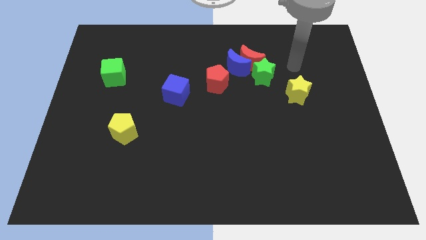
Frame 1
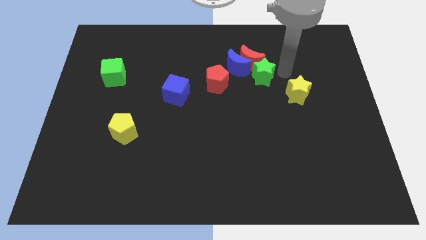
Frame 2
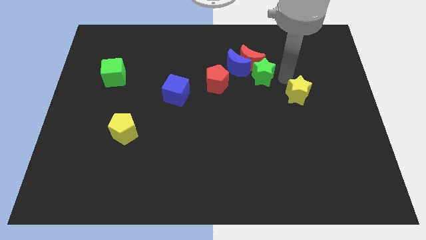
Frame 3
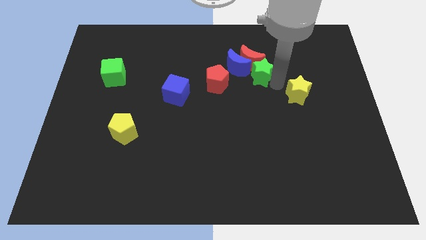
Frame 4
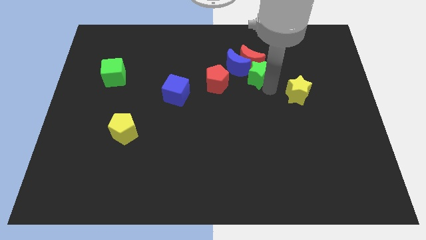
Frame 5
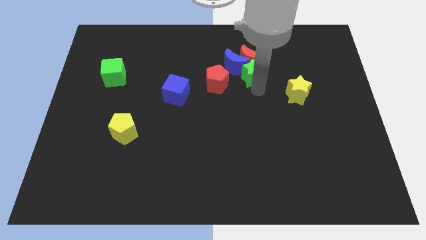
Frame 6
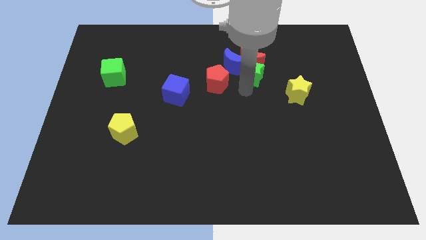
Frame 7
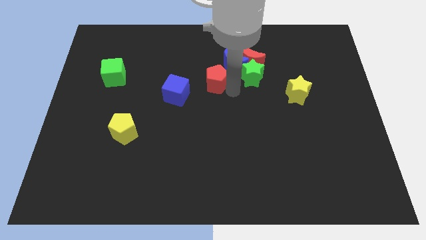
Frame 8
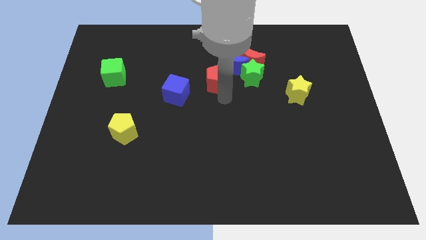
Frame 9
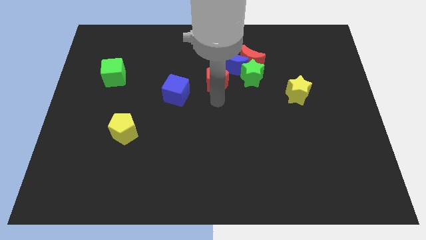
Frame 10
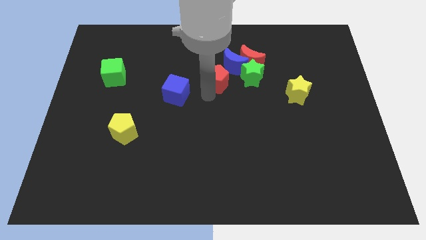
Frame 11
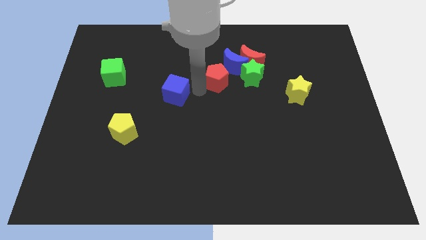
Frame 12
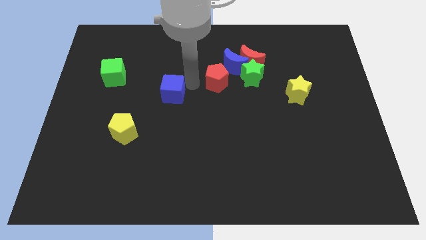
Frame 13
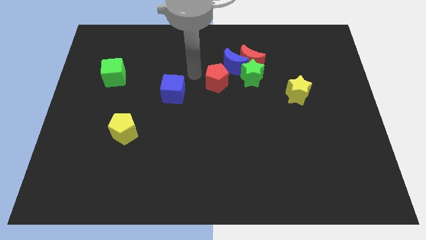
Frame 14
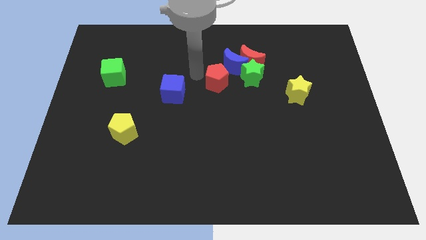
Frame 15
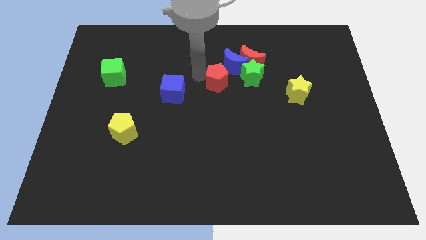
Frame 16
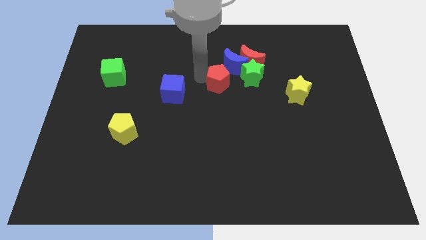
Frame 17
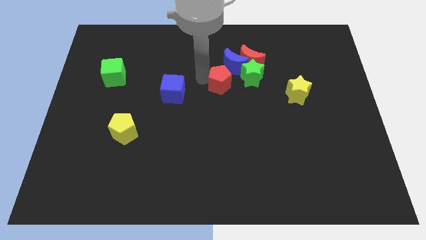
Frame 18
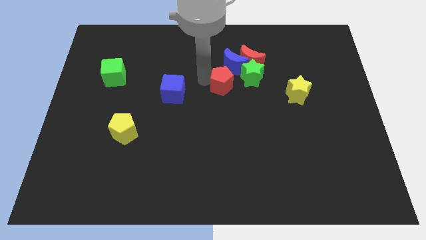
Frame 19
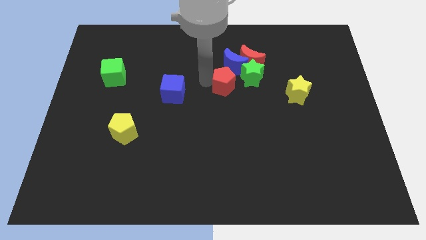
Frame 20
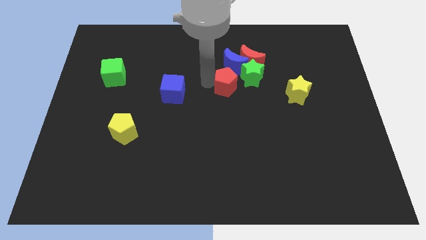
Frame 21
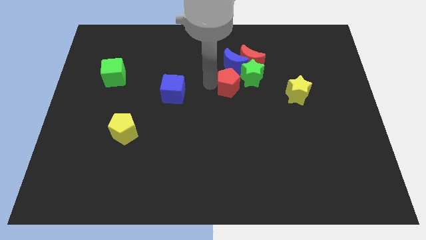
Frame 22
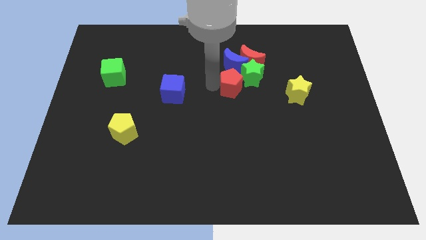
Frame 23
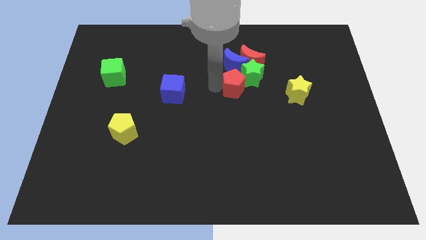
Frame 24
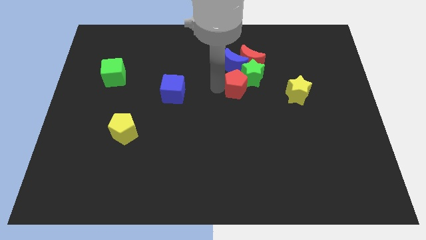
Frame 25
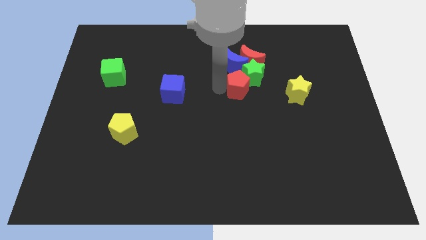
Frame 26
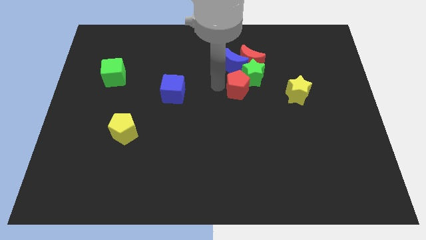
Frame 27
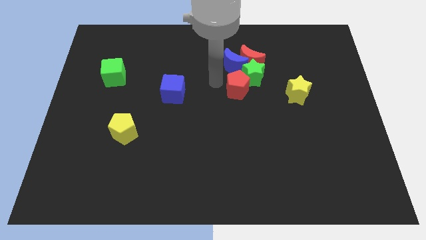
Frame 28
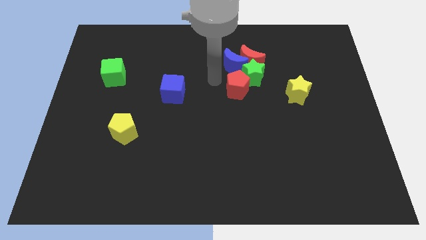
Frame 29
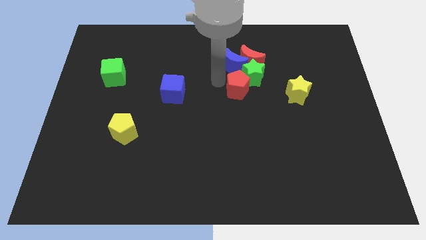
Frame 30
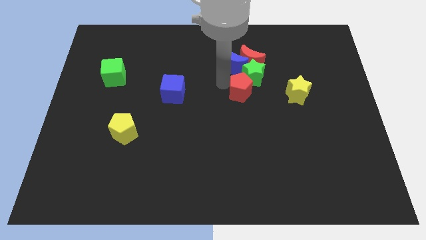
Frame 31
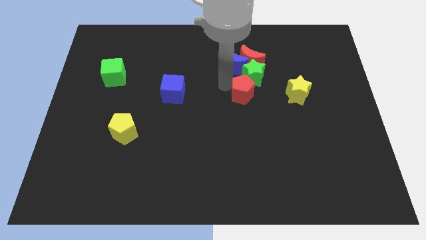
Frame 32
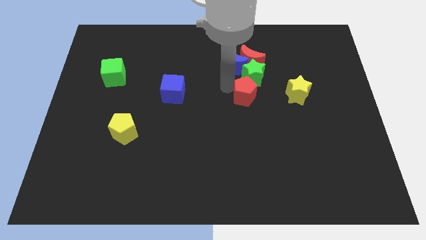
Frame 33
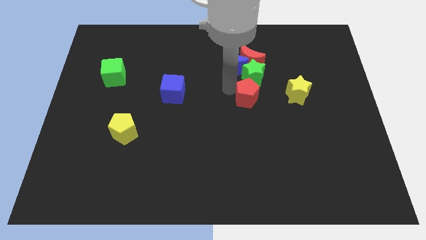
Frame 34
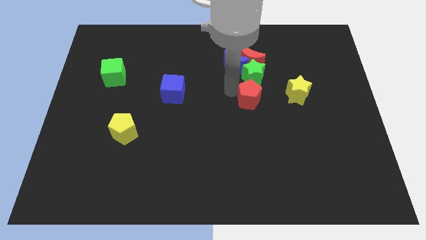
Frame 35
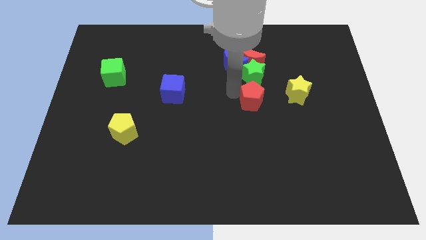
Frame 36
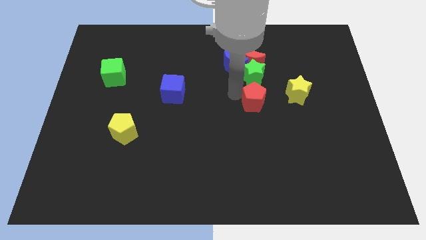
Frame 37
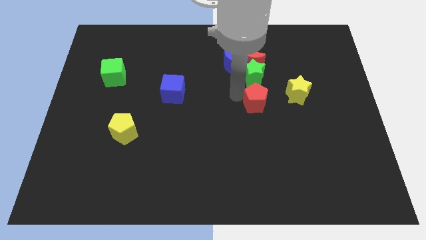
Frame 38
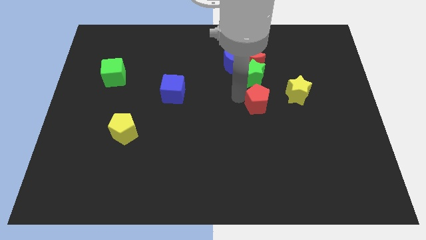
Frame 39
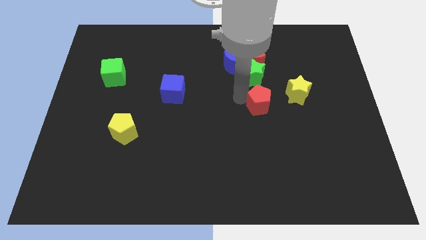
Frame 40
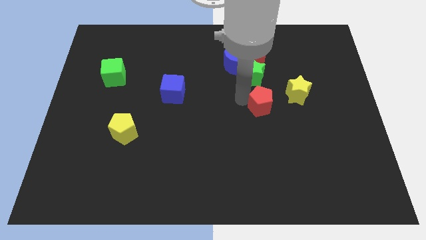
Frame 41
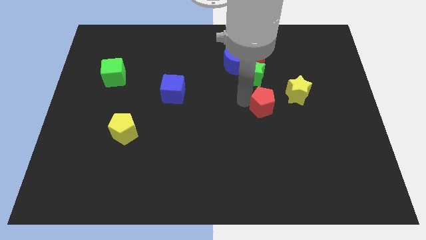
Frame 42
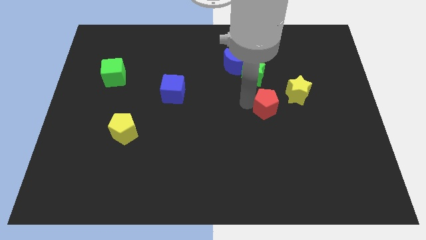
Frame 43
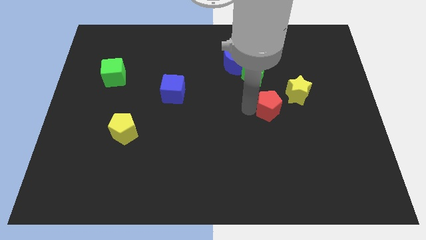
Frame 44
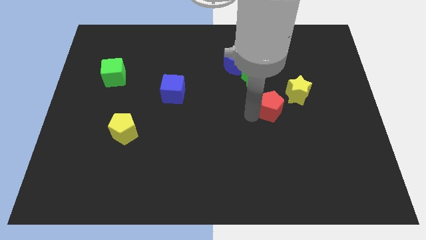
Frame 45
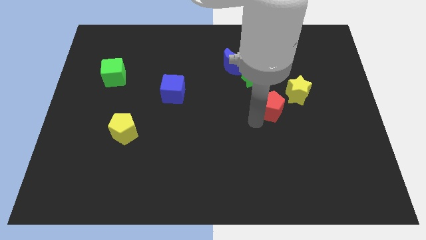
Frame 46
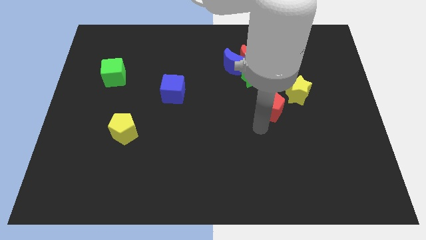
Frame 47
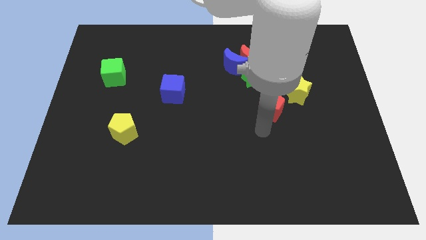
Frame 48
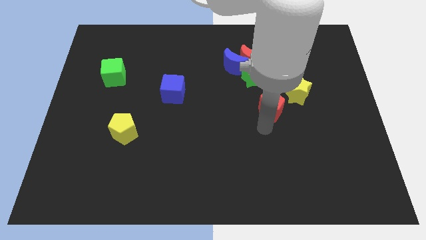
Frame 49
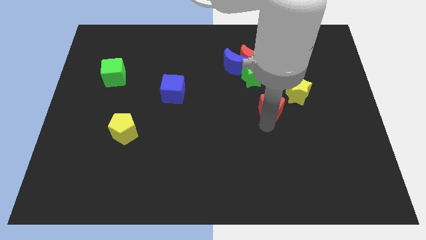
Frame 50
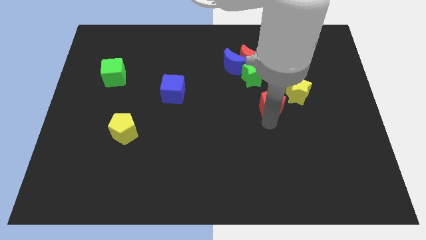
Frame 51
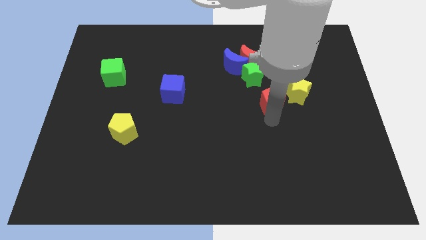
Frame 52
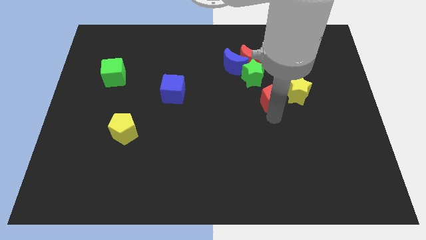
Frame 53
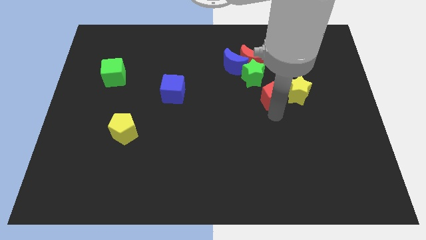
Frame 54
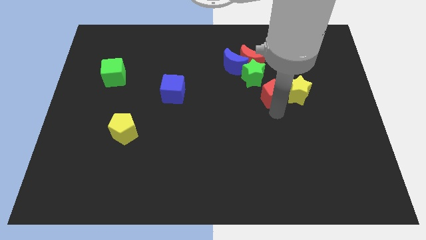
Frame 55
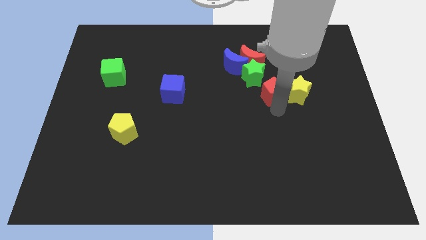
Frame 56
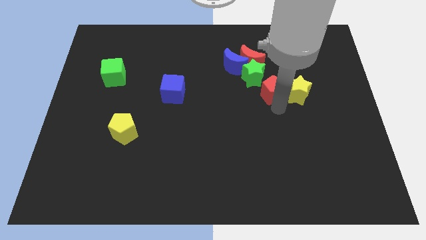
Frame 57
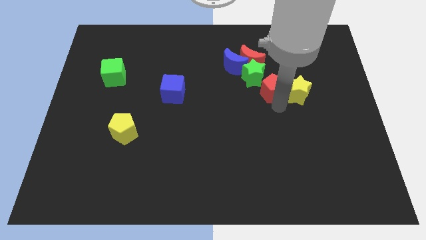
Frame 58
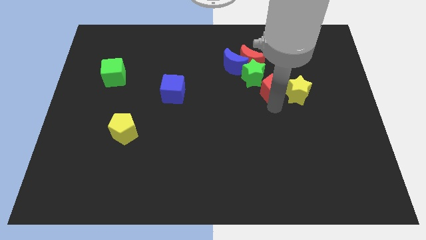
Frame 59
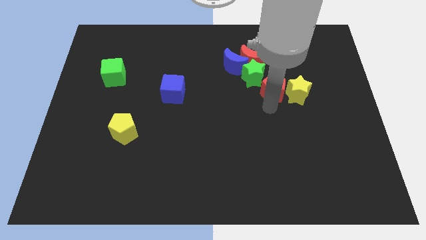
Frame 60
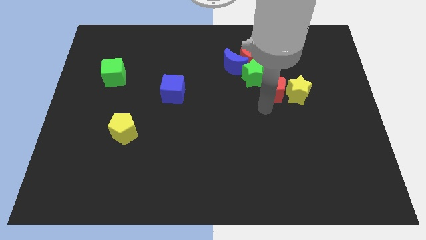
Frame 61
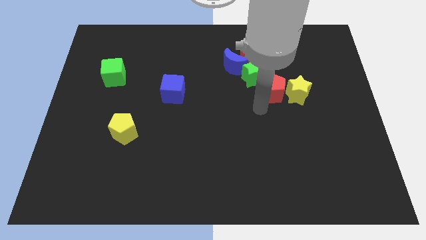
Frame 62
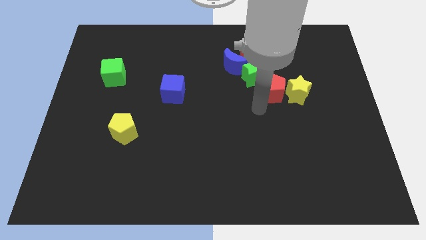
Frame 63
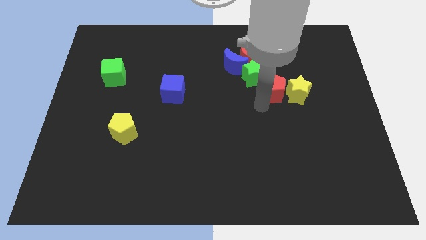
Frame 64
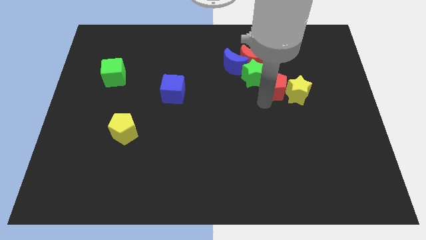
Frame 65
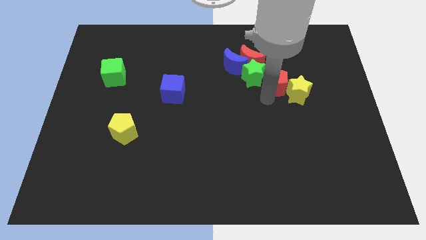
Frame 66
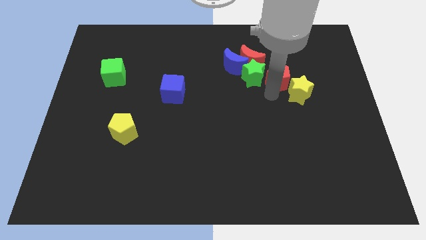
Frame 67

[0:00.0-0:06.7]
push the red pentagon to the right side of the blue moon

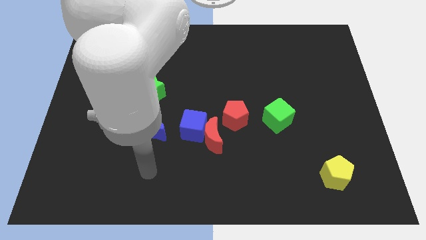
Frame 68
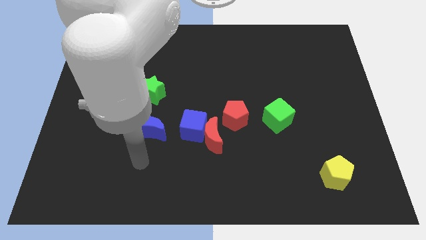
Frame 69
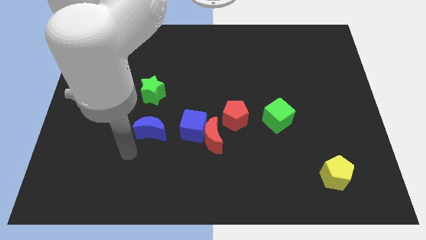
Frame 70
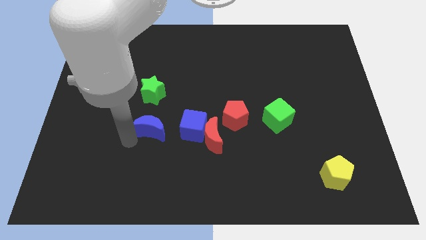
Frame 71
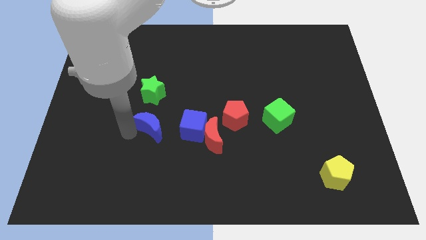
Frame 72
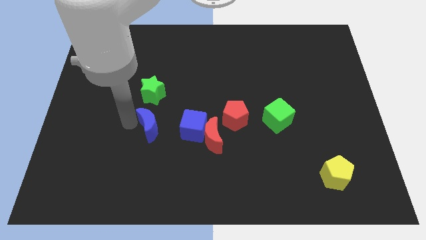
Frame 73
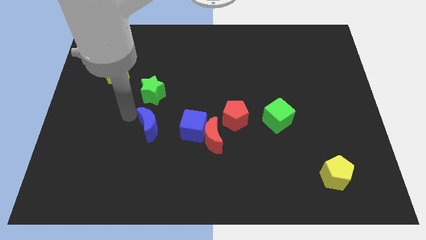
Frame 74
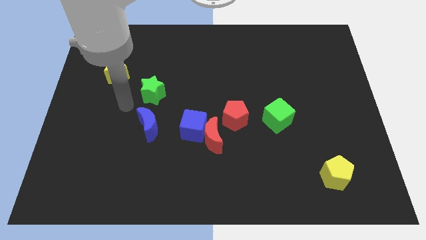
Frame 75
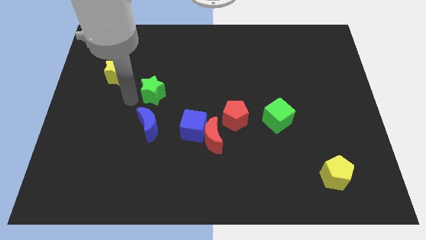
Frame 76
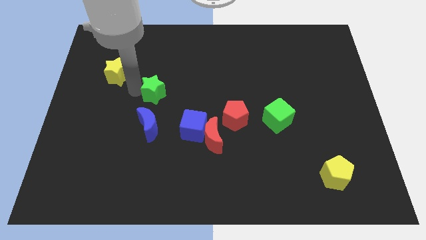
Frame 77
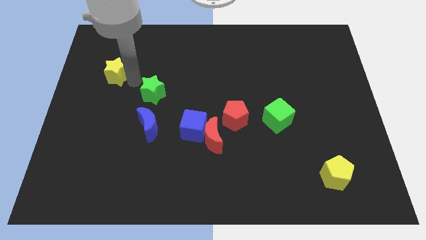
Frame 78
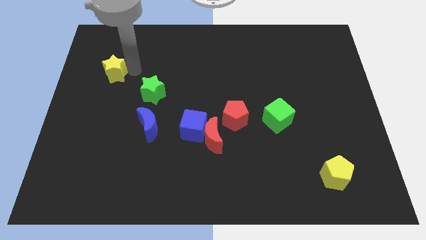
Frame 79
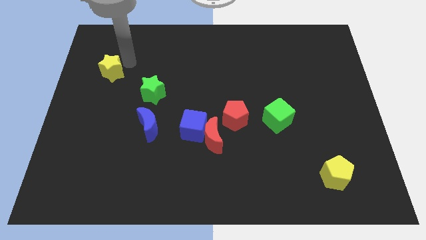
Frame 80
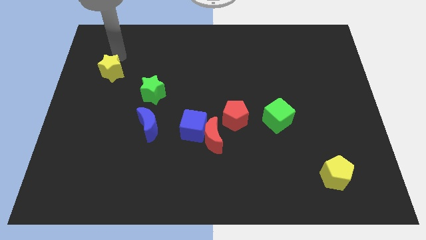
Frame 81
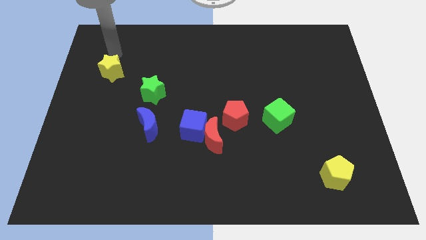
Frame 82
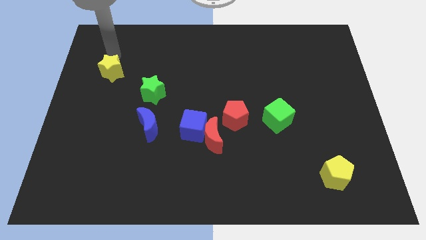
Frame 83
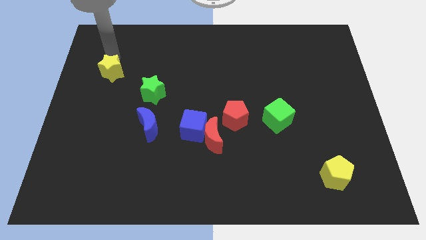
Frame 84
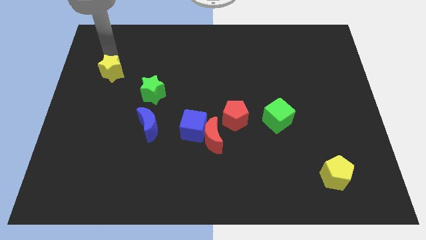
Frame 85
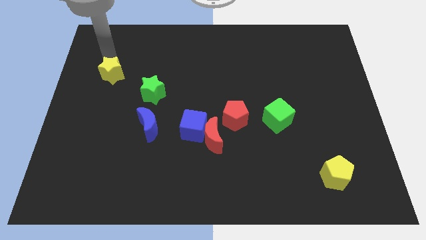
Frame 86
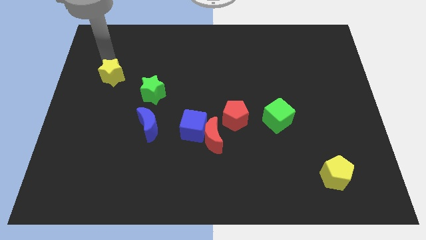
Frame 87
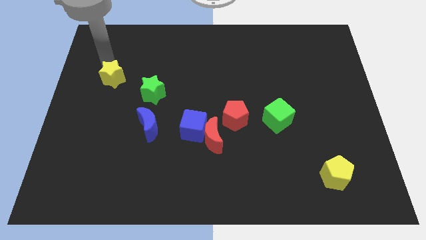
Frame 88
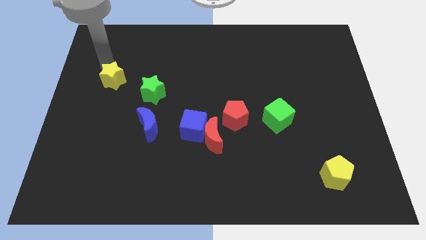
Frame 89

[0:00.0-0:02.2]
put the yellow star just left of the green star
